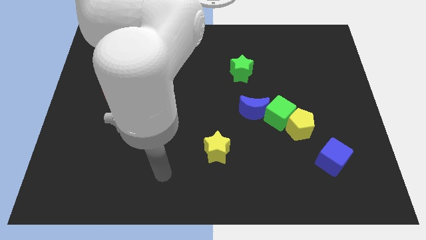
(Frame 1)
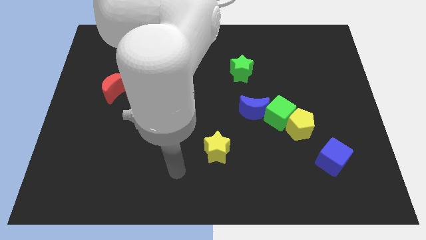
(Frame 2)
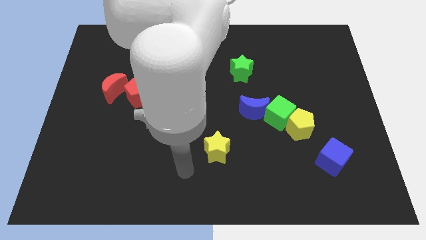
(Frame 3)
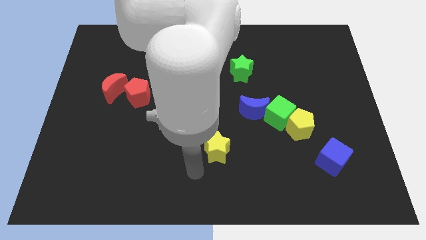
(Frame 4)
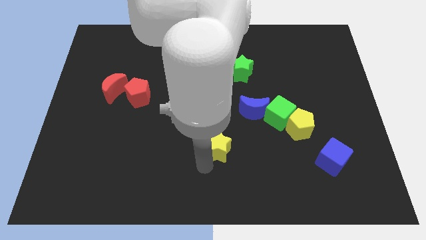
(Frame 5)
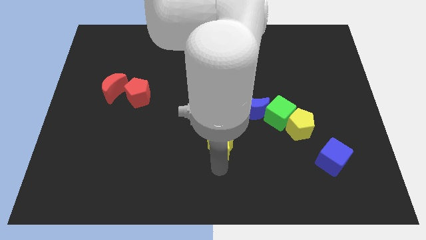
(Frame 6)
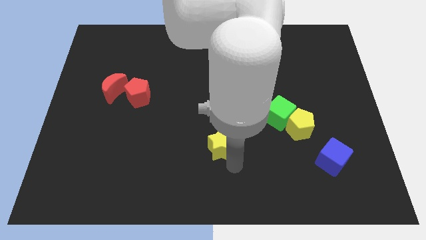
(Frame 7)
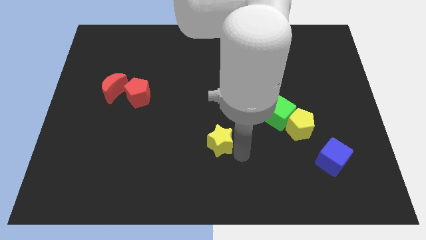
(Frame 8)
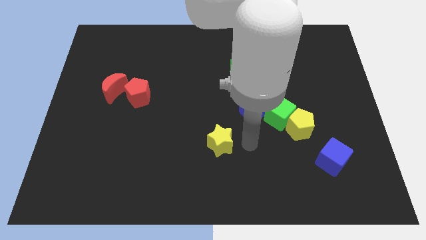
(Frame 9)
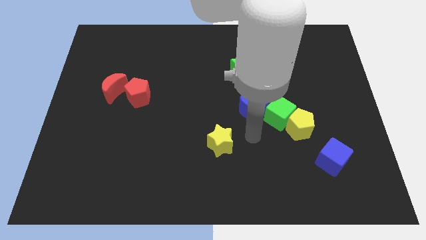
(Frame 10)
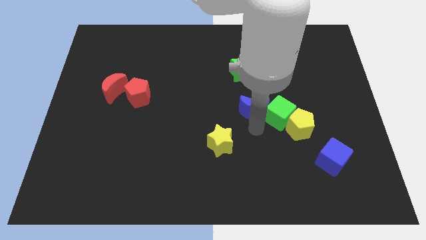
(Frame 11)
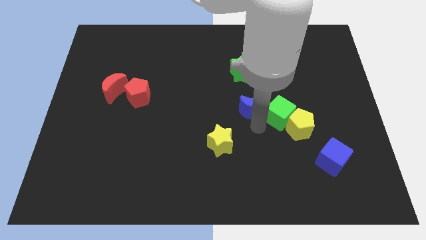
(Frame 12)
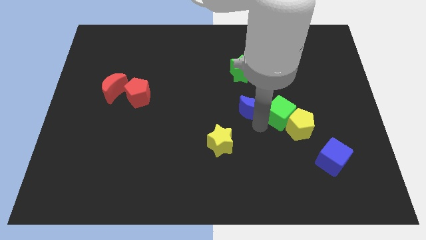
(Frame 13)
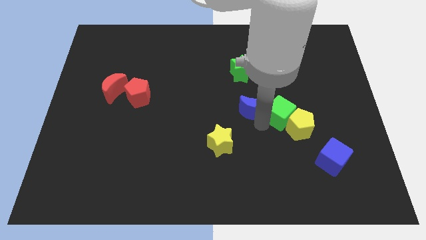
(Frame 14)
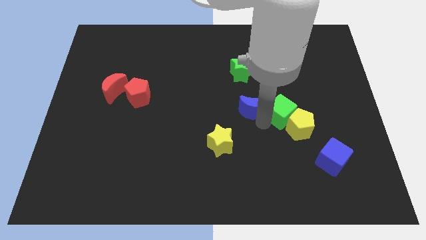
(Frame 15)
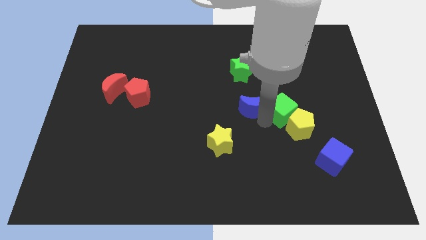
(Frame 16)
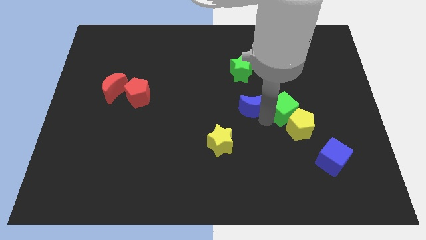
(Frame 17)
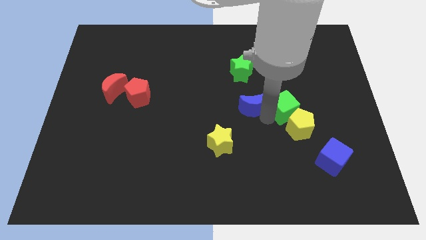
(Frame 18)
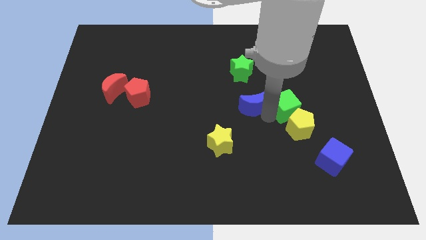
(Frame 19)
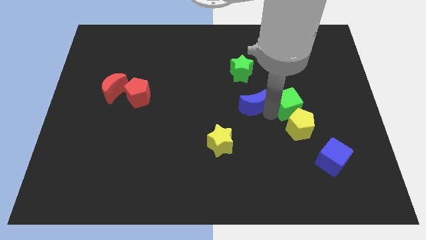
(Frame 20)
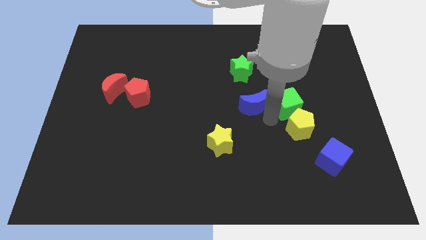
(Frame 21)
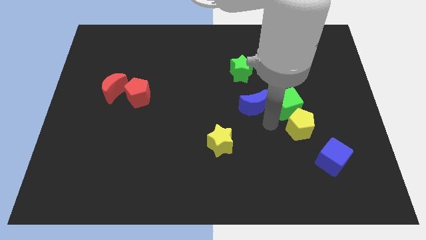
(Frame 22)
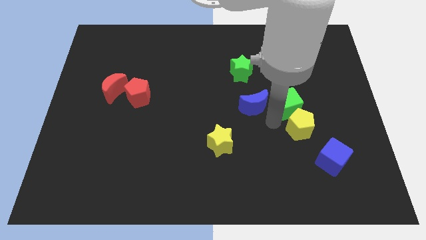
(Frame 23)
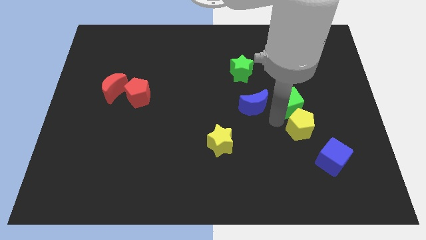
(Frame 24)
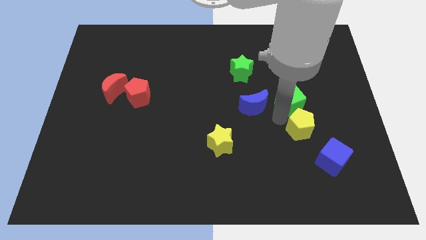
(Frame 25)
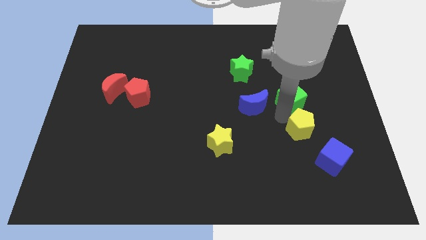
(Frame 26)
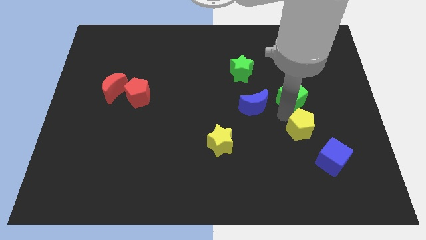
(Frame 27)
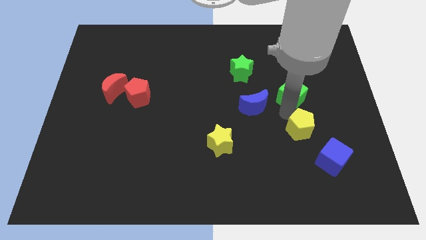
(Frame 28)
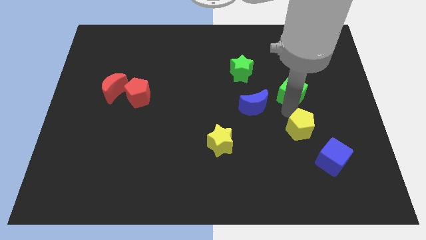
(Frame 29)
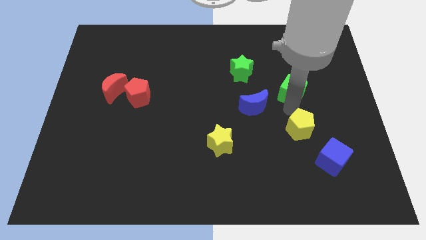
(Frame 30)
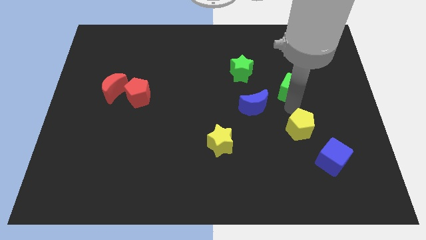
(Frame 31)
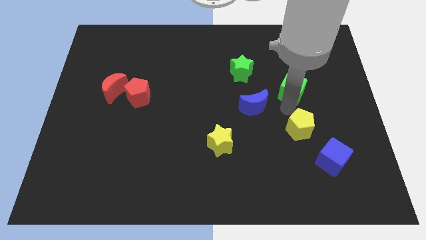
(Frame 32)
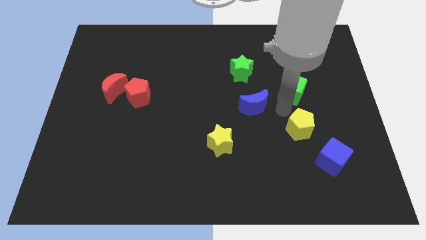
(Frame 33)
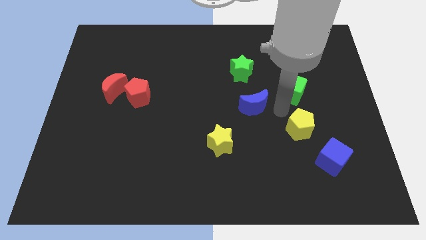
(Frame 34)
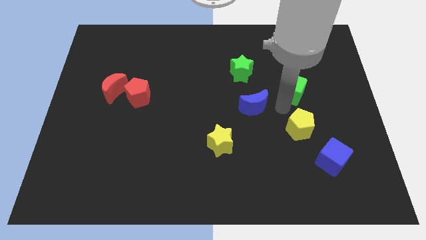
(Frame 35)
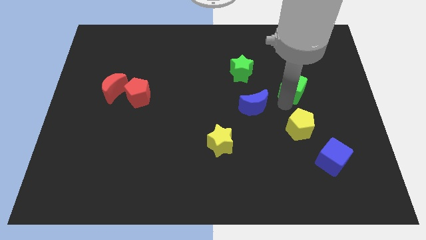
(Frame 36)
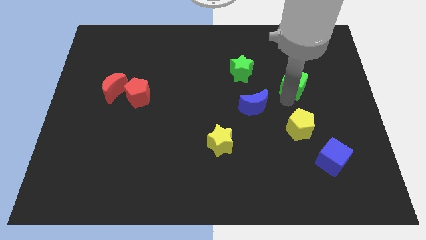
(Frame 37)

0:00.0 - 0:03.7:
pull the green cube apart from the yellow pentagon and blue moon

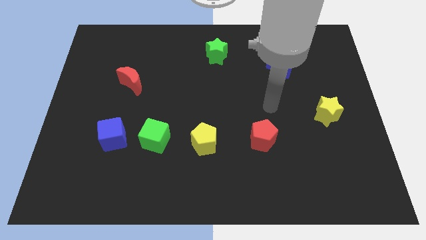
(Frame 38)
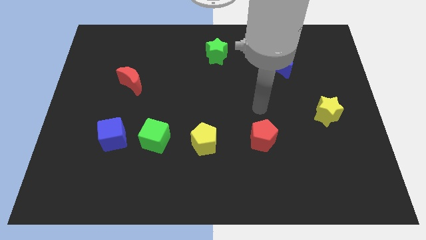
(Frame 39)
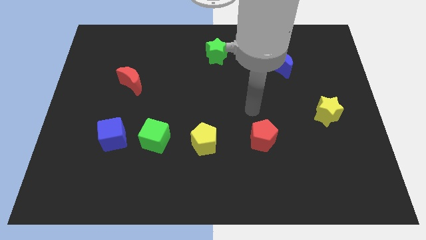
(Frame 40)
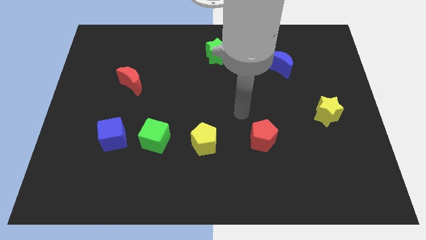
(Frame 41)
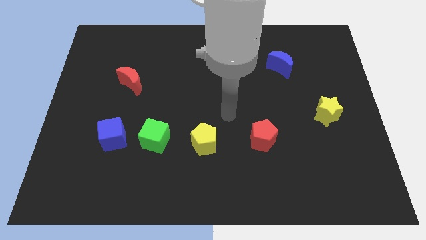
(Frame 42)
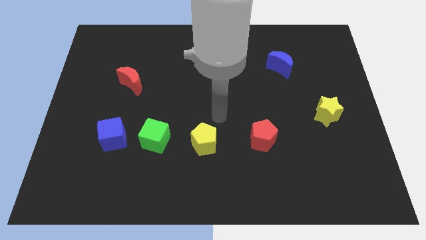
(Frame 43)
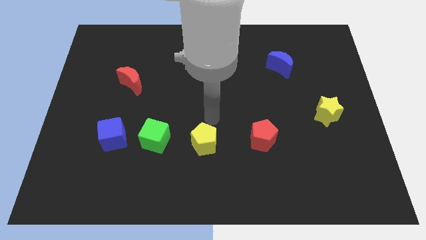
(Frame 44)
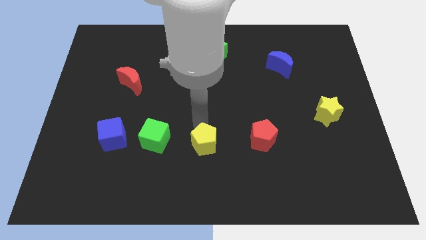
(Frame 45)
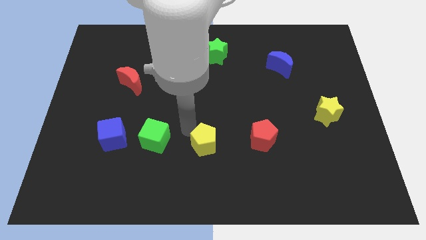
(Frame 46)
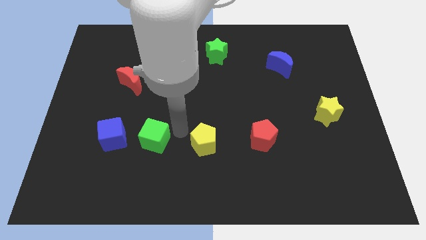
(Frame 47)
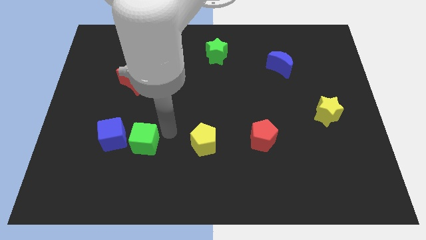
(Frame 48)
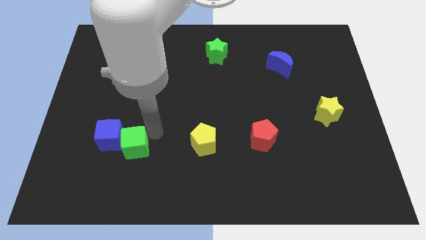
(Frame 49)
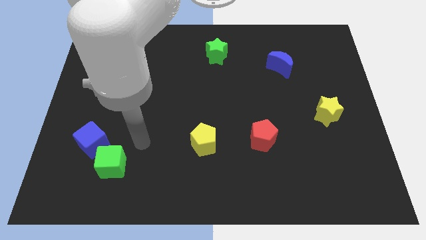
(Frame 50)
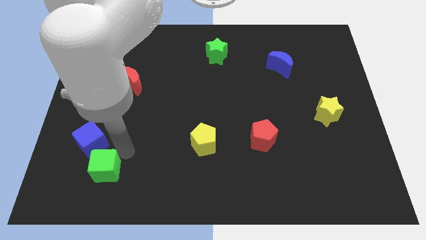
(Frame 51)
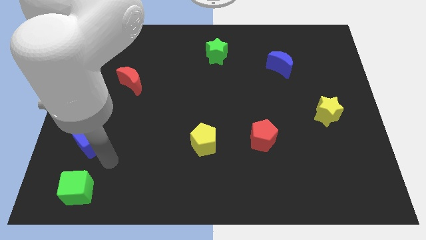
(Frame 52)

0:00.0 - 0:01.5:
separate the blue cube from the green cube

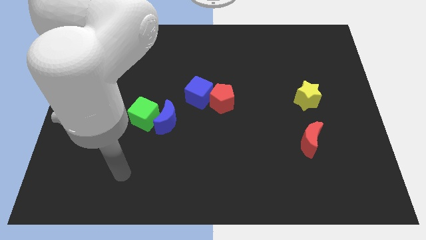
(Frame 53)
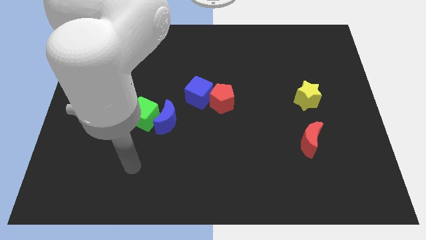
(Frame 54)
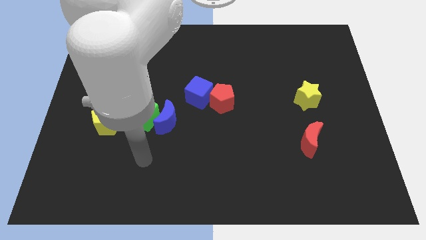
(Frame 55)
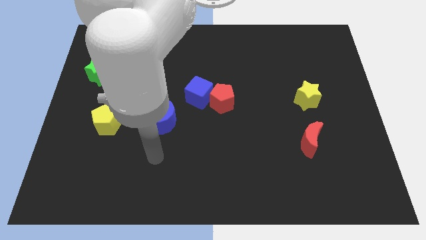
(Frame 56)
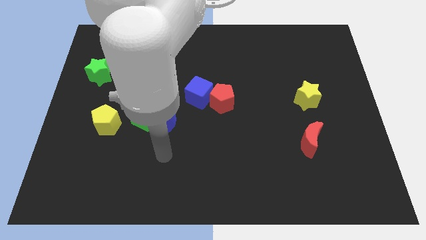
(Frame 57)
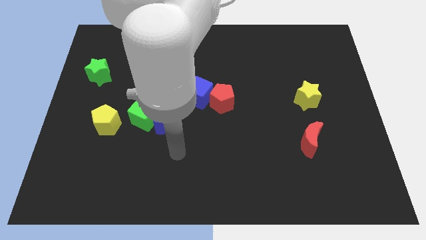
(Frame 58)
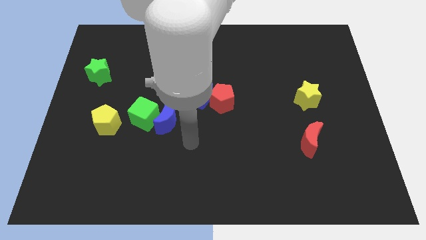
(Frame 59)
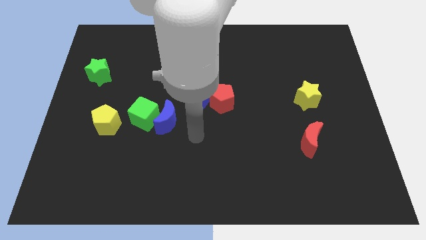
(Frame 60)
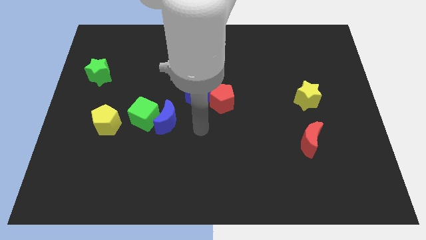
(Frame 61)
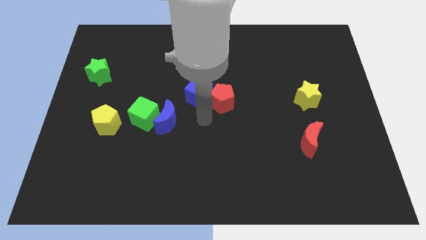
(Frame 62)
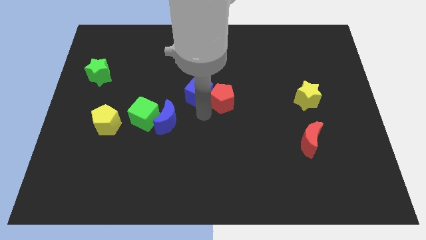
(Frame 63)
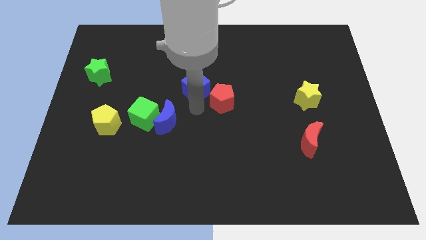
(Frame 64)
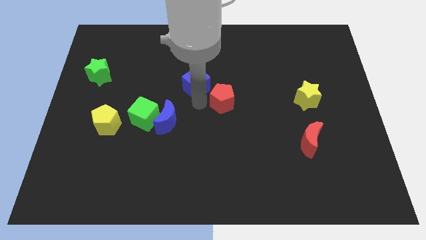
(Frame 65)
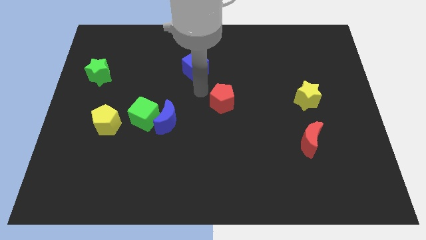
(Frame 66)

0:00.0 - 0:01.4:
pull the red pentagon apart from the blue cube

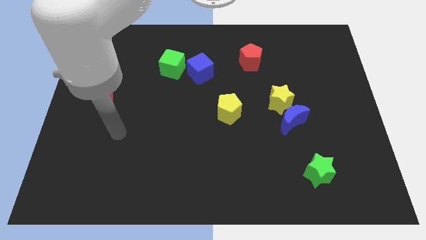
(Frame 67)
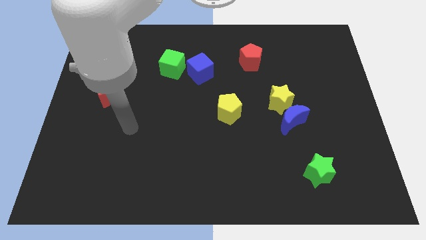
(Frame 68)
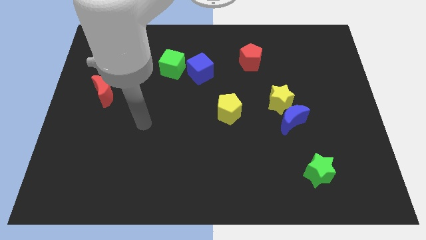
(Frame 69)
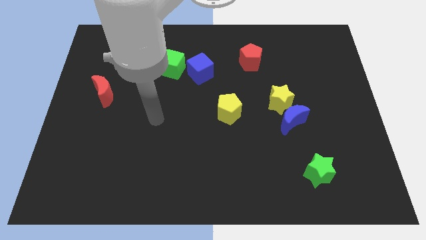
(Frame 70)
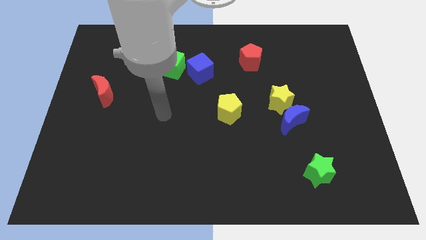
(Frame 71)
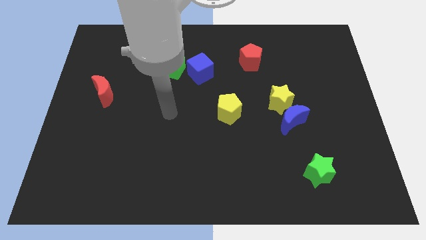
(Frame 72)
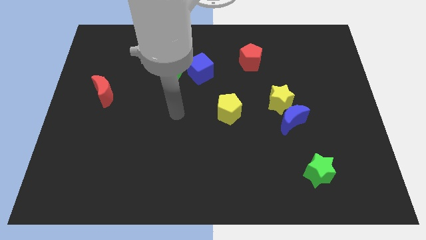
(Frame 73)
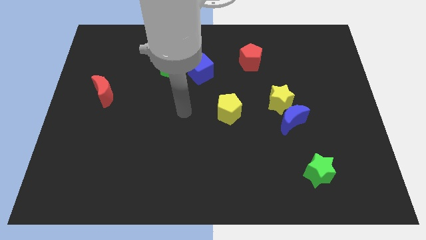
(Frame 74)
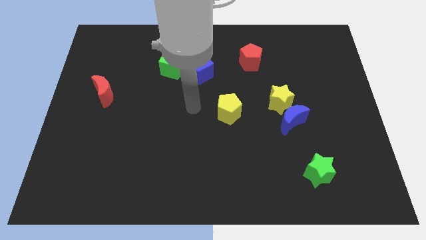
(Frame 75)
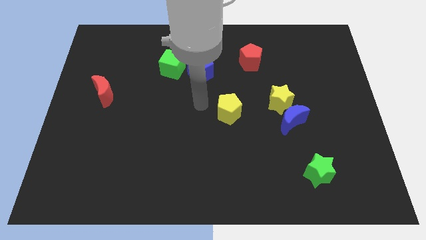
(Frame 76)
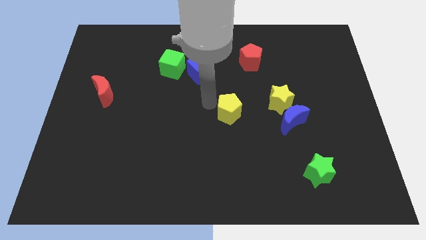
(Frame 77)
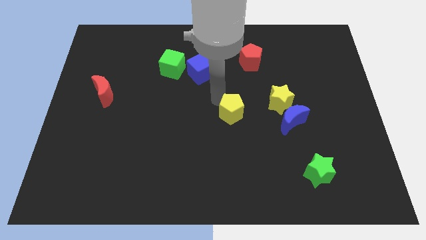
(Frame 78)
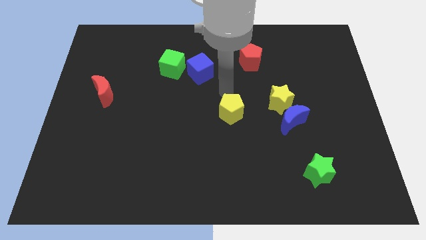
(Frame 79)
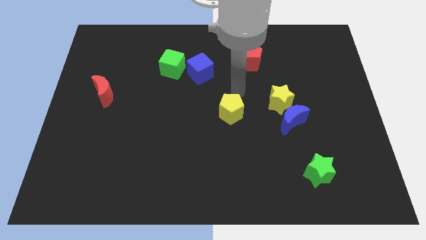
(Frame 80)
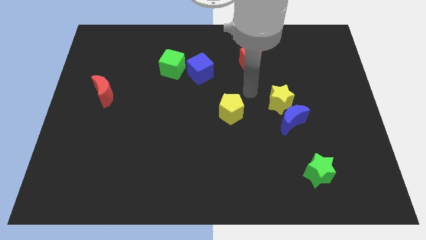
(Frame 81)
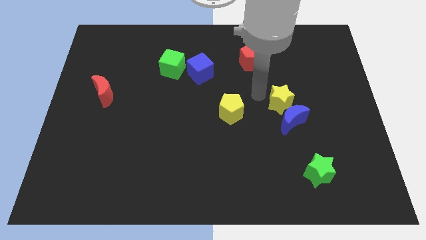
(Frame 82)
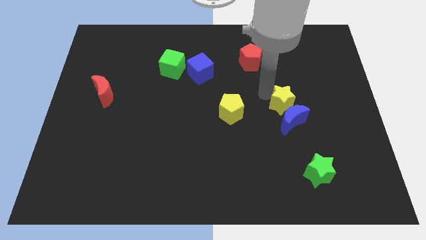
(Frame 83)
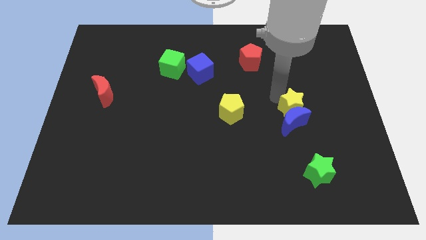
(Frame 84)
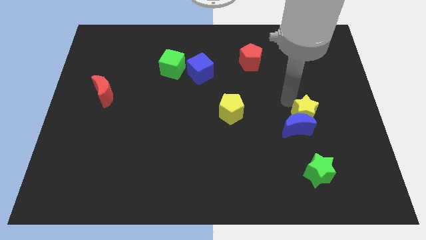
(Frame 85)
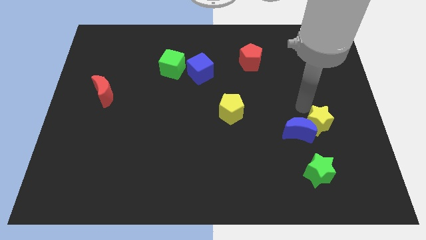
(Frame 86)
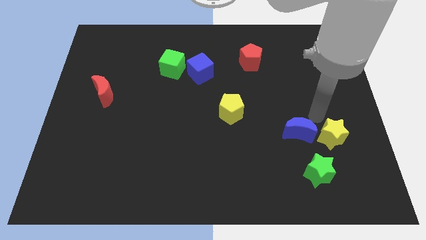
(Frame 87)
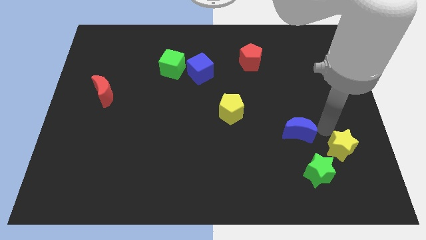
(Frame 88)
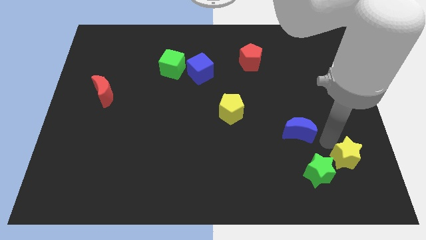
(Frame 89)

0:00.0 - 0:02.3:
move the blue moon away from the yellow star

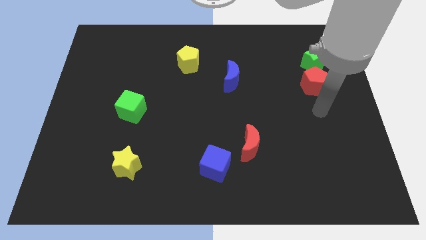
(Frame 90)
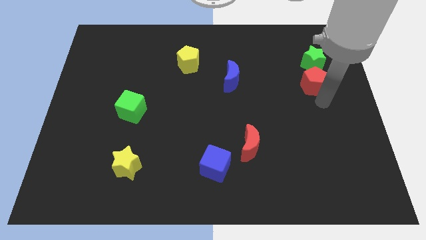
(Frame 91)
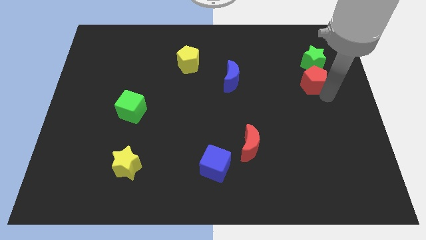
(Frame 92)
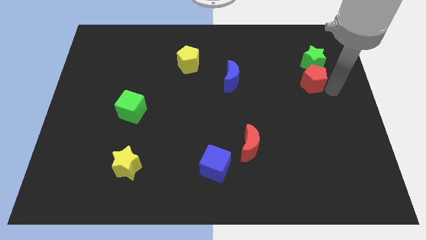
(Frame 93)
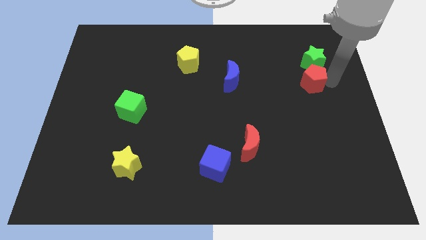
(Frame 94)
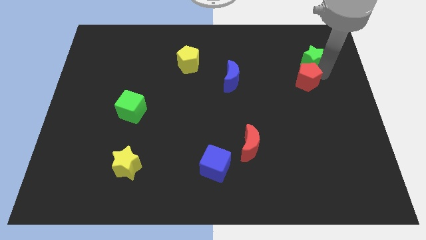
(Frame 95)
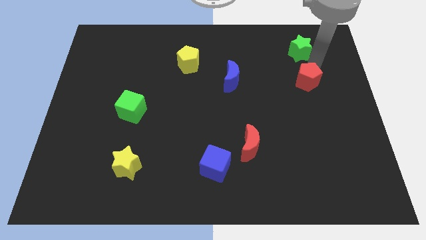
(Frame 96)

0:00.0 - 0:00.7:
move the red pentagon away from the green star
